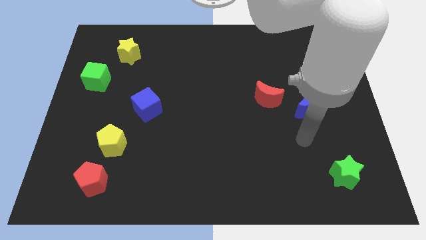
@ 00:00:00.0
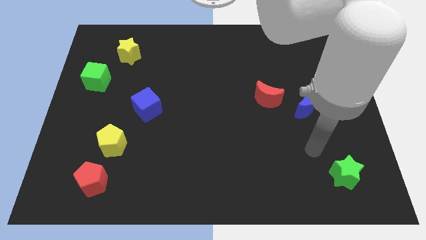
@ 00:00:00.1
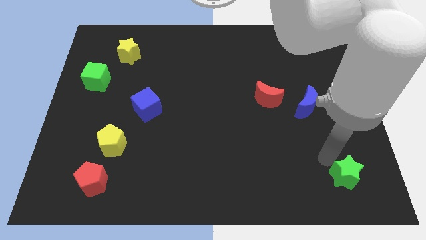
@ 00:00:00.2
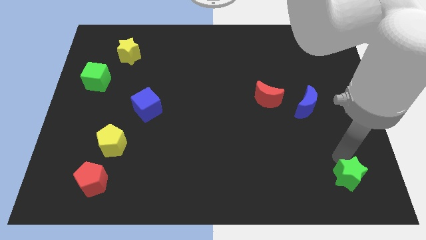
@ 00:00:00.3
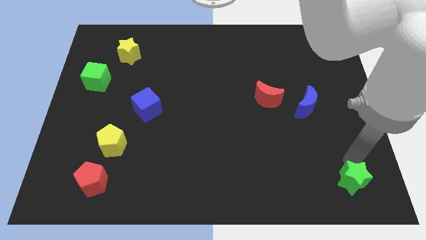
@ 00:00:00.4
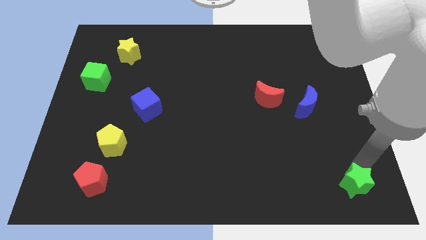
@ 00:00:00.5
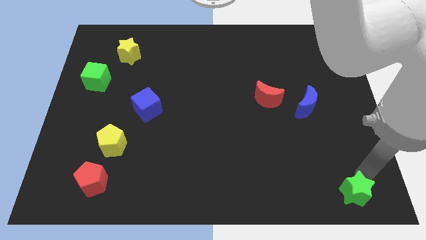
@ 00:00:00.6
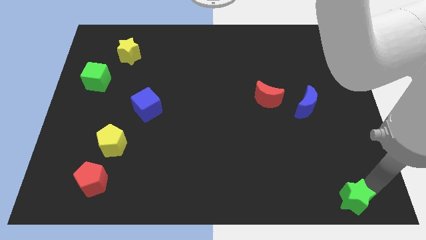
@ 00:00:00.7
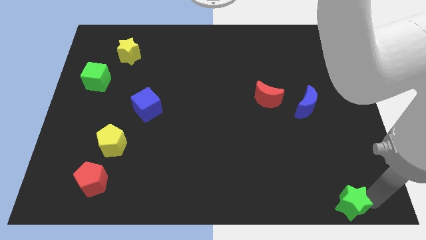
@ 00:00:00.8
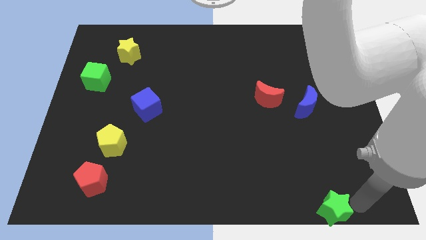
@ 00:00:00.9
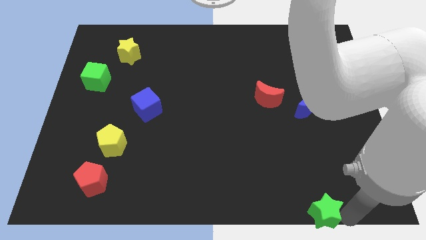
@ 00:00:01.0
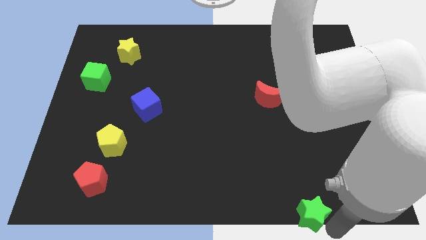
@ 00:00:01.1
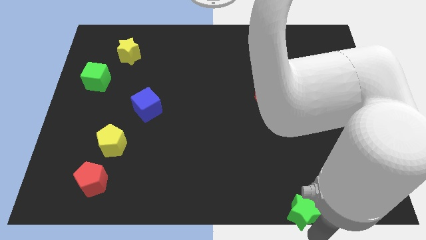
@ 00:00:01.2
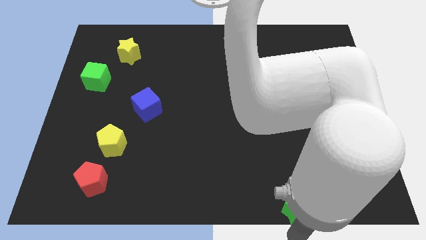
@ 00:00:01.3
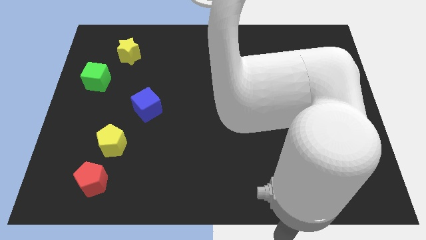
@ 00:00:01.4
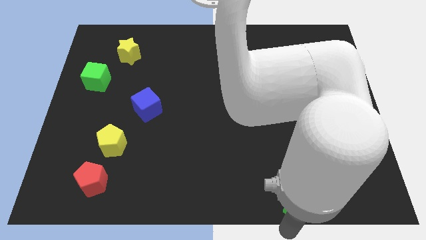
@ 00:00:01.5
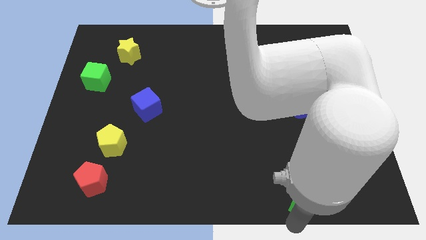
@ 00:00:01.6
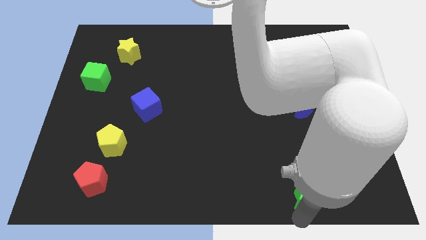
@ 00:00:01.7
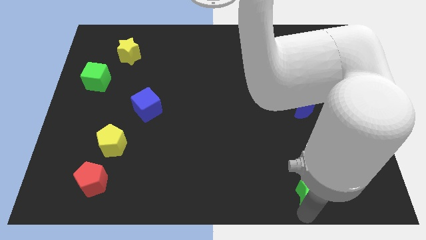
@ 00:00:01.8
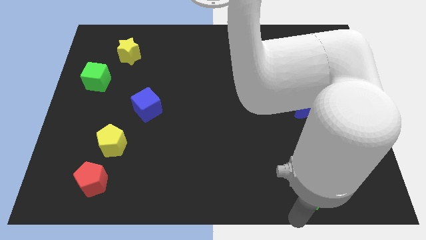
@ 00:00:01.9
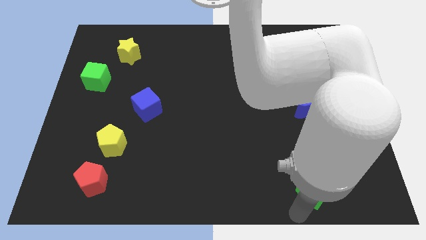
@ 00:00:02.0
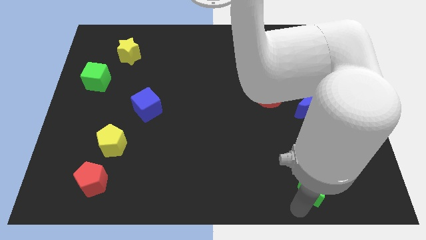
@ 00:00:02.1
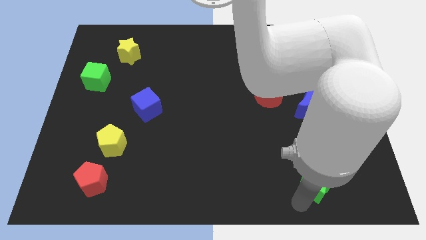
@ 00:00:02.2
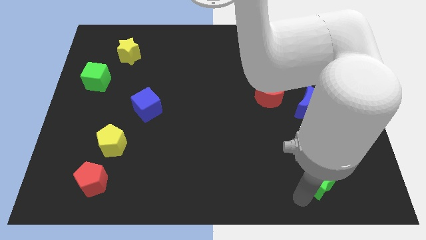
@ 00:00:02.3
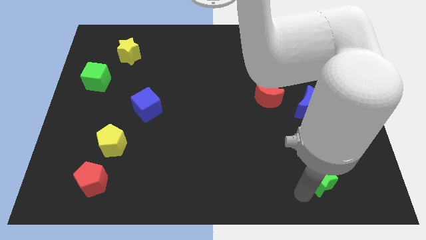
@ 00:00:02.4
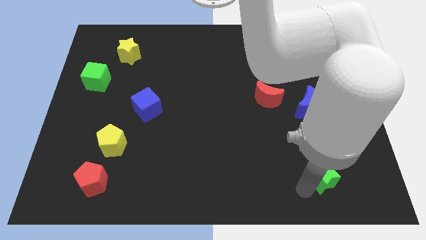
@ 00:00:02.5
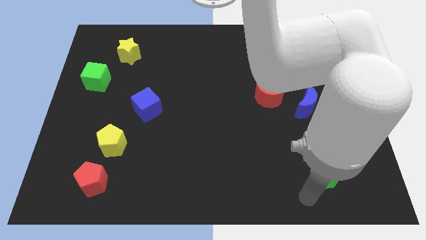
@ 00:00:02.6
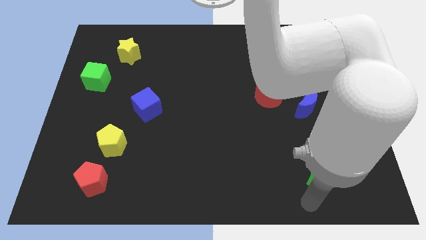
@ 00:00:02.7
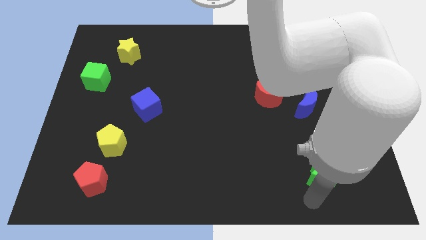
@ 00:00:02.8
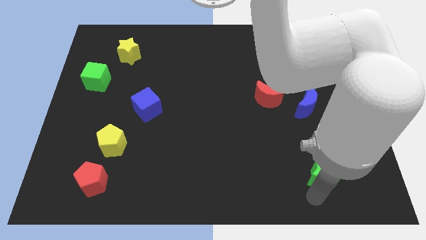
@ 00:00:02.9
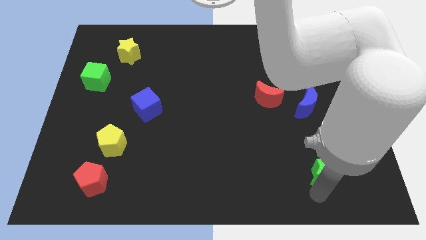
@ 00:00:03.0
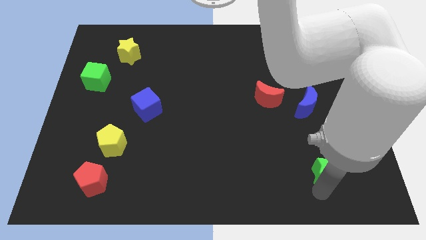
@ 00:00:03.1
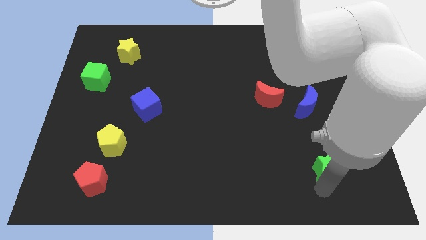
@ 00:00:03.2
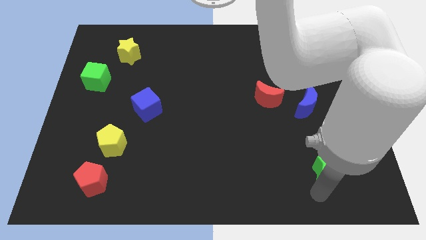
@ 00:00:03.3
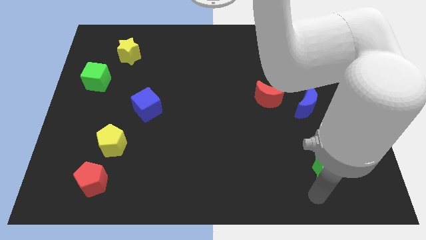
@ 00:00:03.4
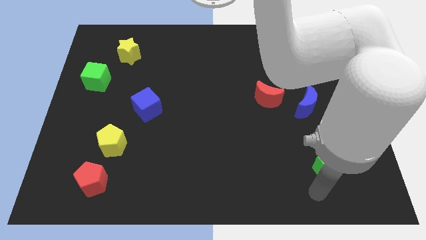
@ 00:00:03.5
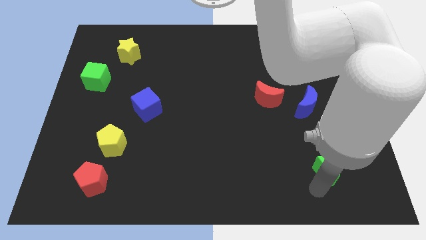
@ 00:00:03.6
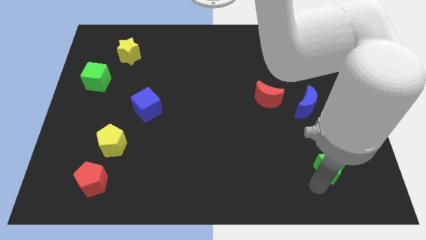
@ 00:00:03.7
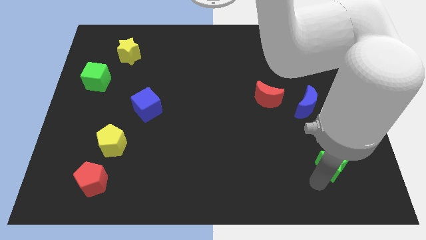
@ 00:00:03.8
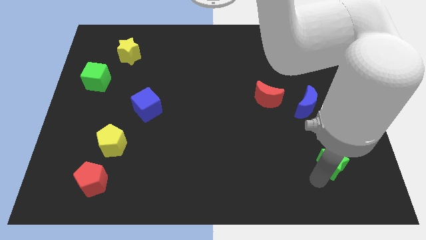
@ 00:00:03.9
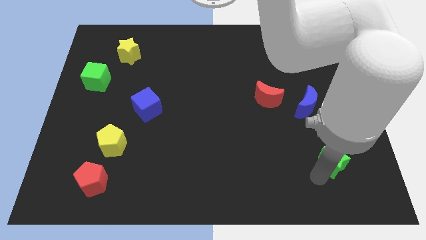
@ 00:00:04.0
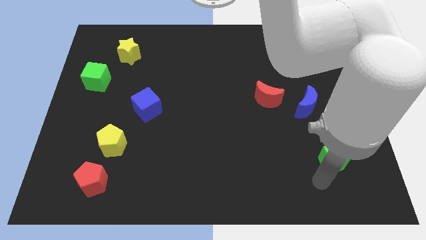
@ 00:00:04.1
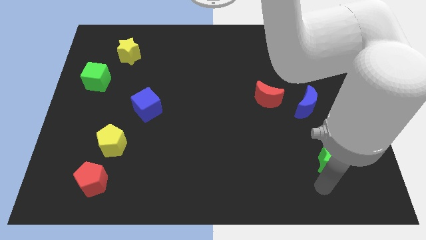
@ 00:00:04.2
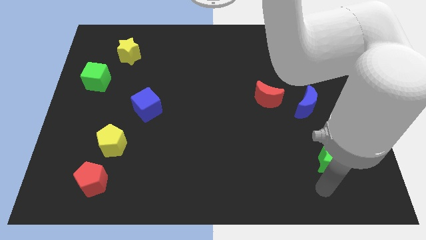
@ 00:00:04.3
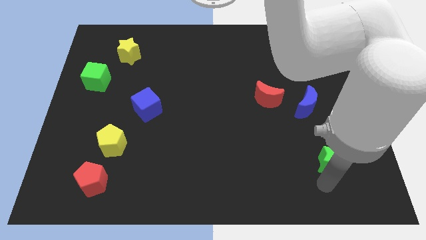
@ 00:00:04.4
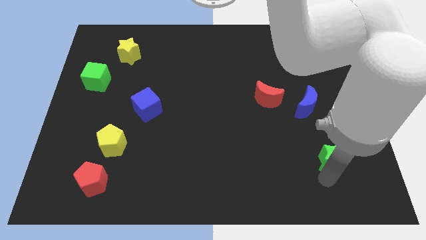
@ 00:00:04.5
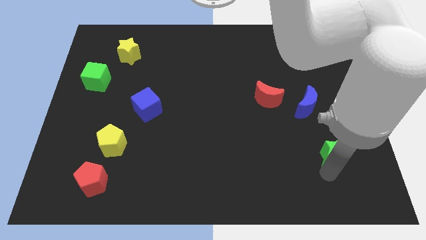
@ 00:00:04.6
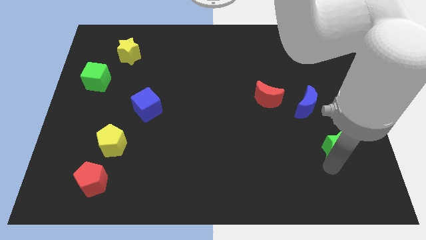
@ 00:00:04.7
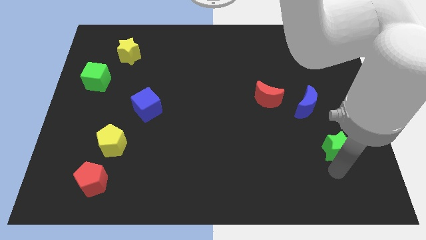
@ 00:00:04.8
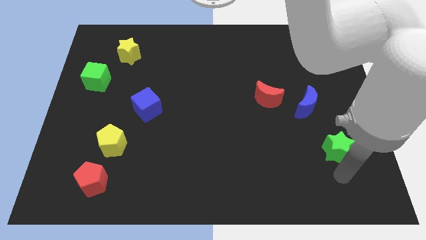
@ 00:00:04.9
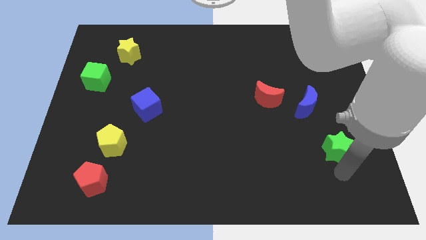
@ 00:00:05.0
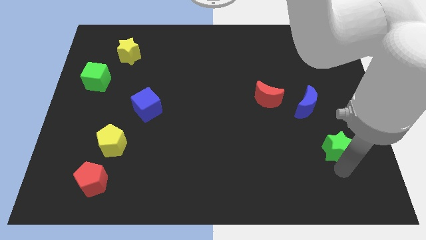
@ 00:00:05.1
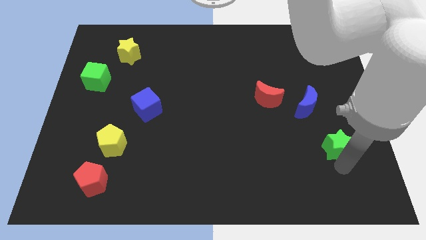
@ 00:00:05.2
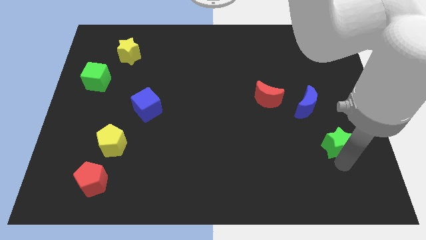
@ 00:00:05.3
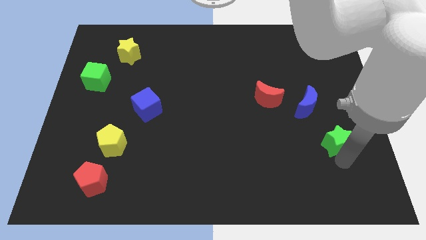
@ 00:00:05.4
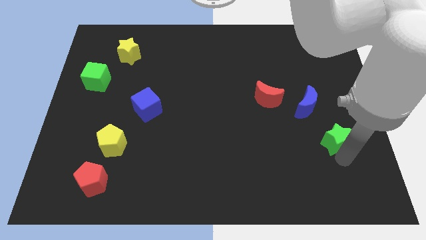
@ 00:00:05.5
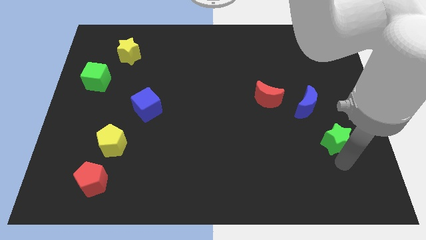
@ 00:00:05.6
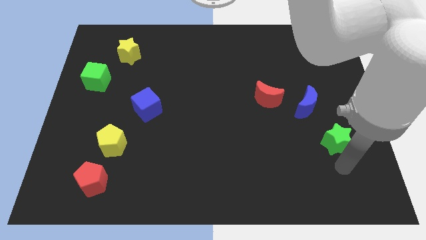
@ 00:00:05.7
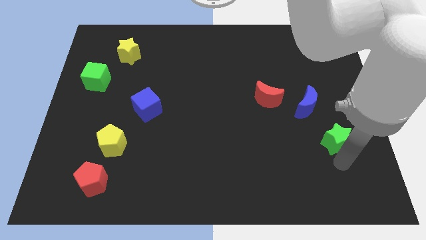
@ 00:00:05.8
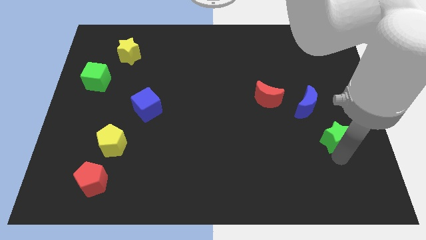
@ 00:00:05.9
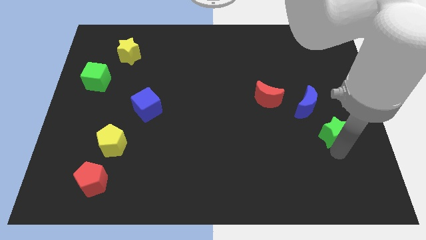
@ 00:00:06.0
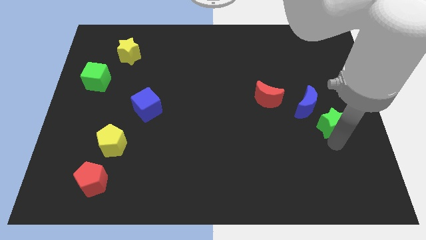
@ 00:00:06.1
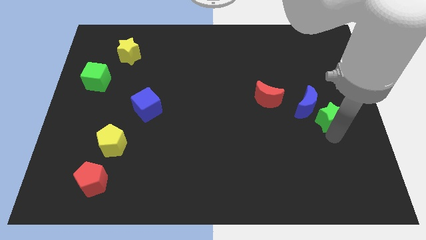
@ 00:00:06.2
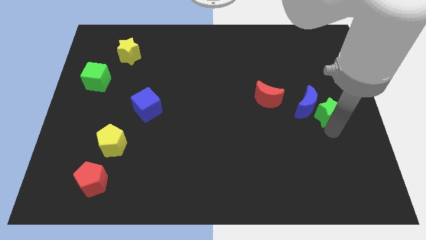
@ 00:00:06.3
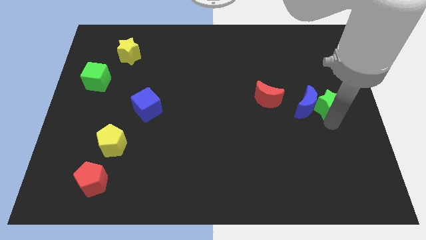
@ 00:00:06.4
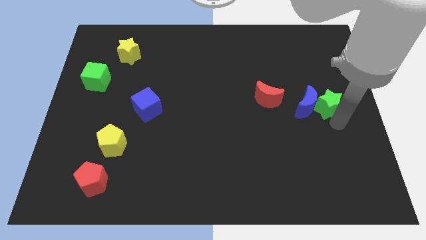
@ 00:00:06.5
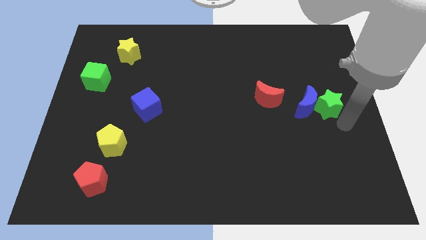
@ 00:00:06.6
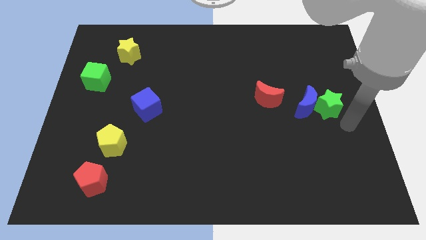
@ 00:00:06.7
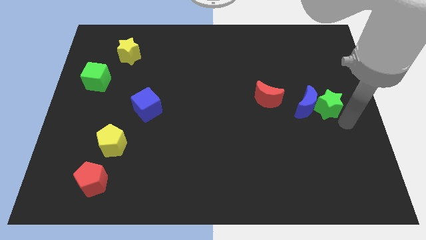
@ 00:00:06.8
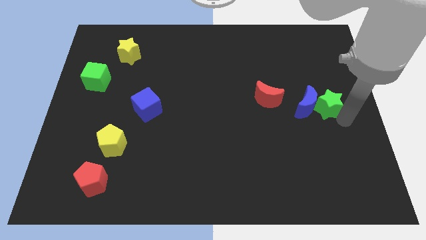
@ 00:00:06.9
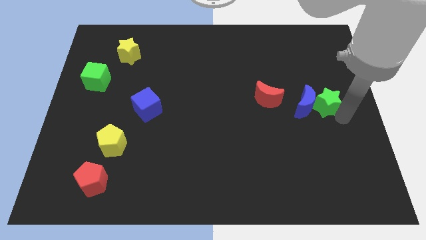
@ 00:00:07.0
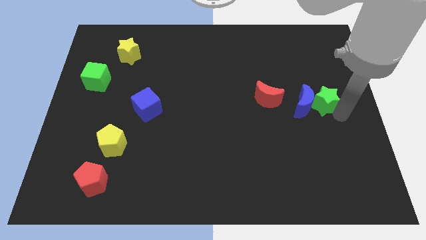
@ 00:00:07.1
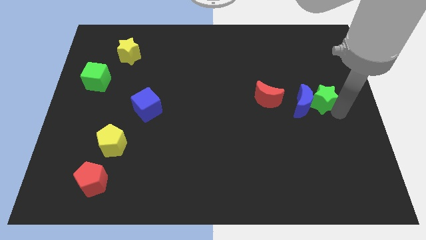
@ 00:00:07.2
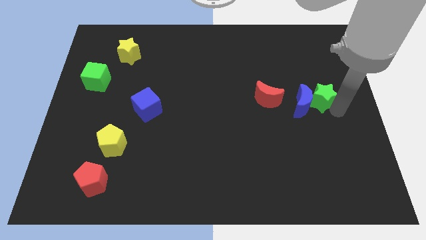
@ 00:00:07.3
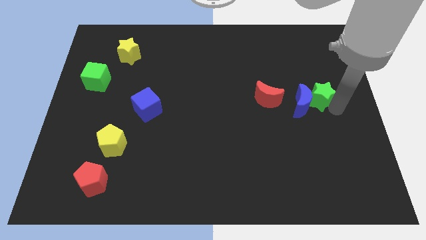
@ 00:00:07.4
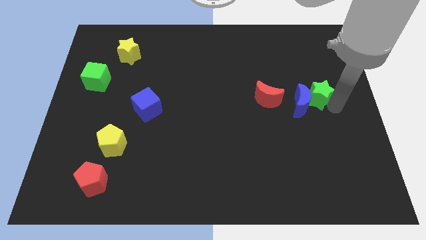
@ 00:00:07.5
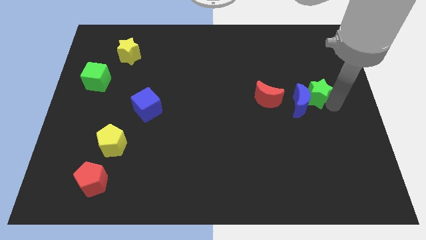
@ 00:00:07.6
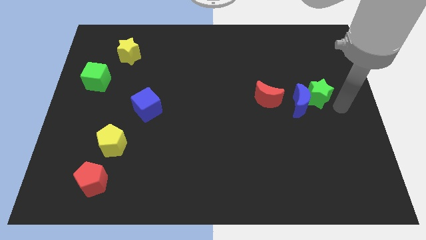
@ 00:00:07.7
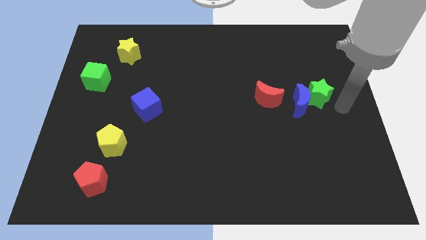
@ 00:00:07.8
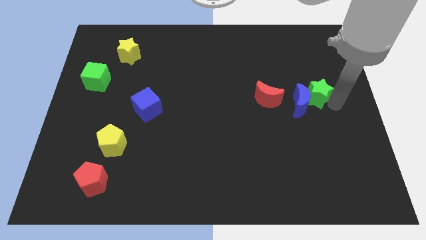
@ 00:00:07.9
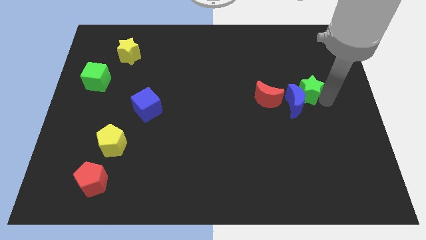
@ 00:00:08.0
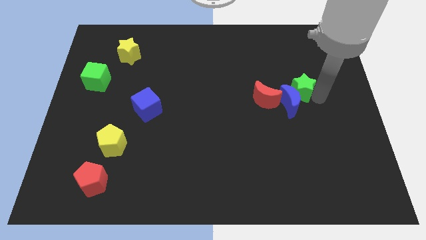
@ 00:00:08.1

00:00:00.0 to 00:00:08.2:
move the green star diagonally up and to the right of the red moon
